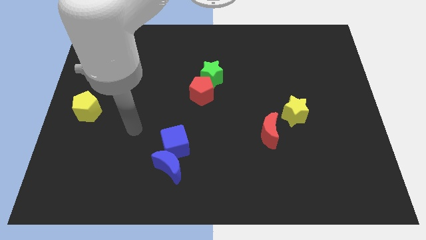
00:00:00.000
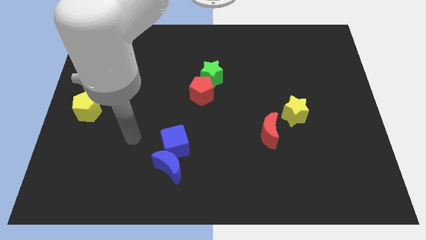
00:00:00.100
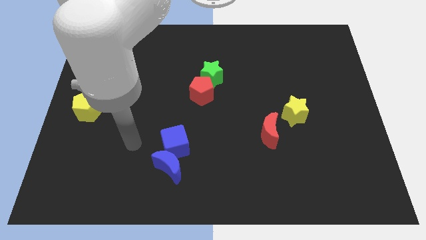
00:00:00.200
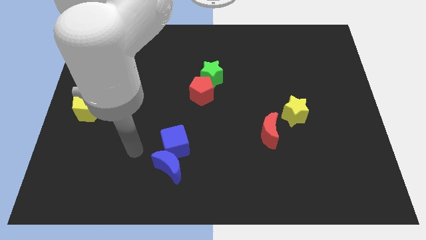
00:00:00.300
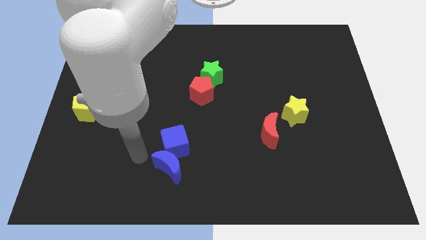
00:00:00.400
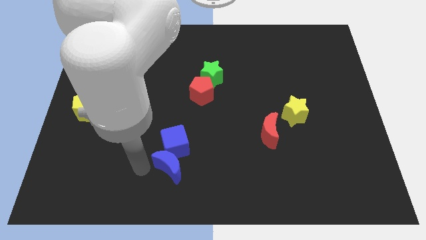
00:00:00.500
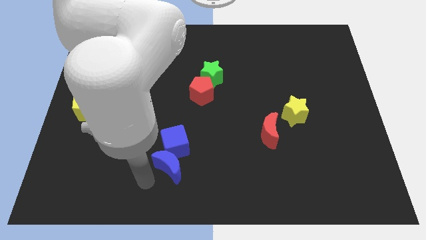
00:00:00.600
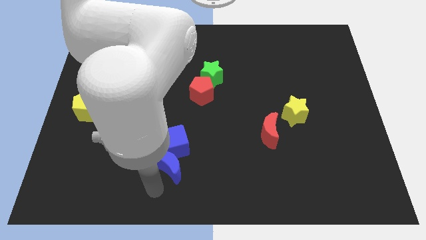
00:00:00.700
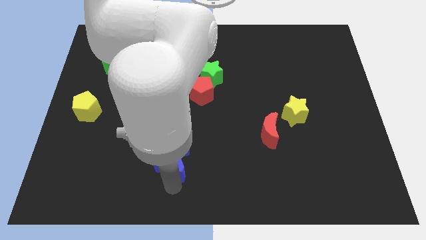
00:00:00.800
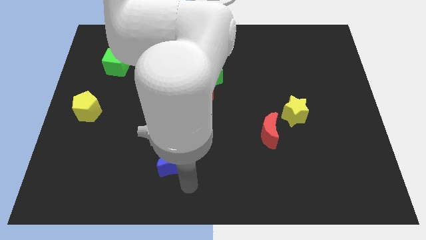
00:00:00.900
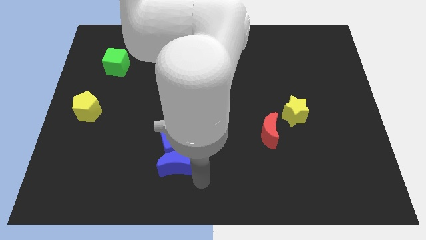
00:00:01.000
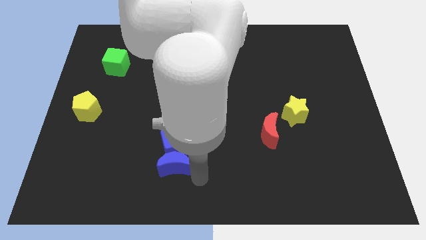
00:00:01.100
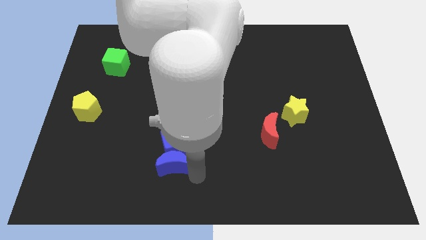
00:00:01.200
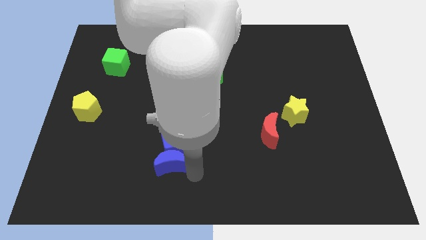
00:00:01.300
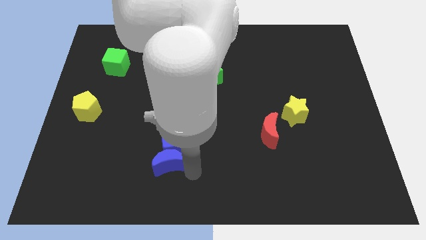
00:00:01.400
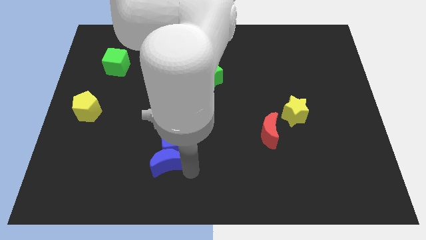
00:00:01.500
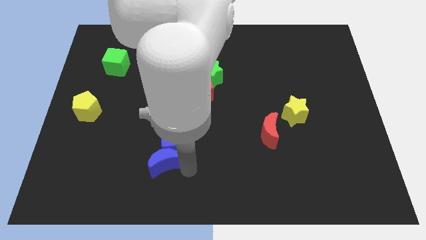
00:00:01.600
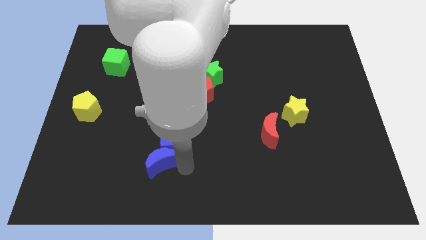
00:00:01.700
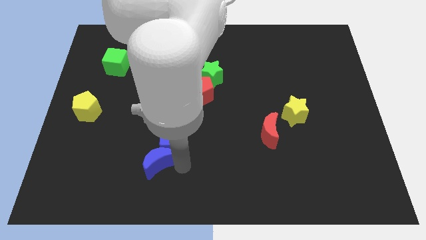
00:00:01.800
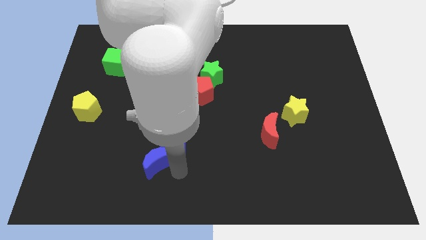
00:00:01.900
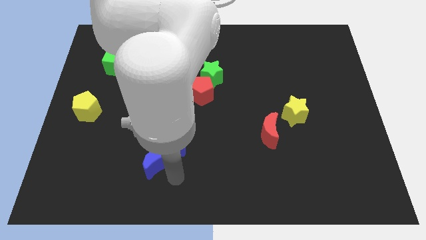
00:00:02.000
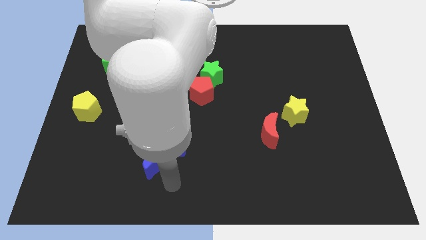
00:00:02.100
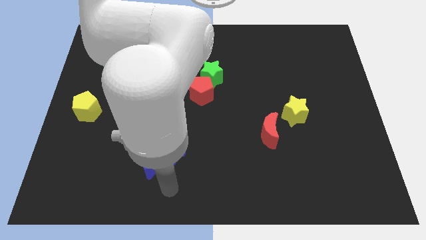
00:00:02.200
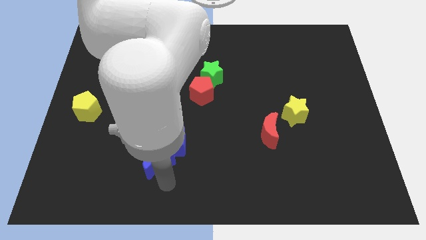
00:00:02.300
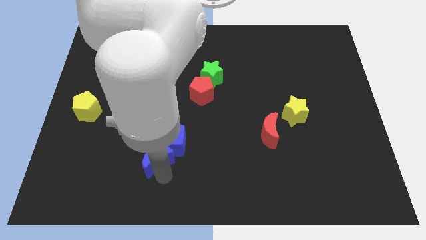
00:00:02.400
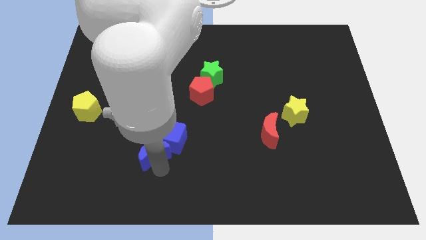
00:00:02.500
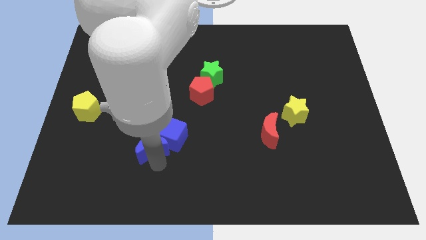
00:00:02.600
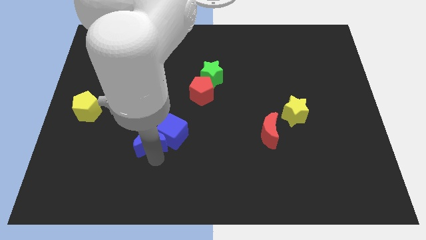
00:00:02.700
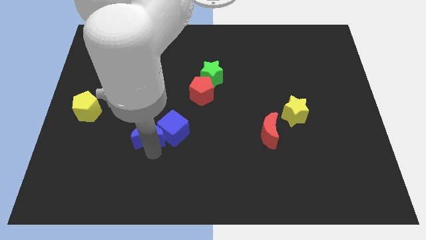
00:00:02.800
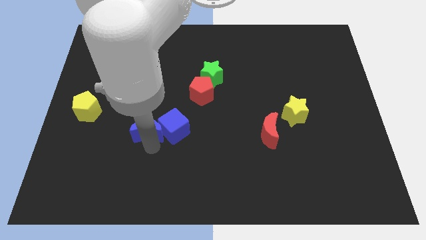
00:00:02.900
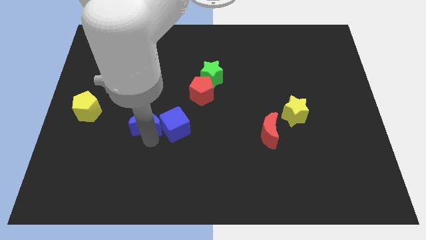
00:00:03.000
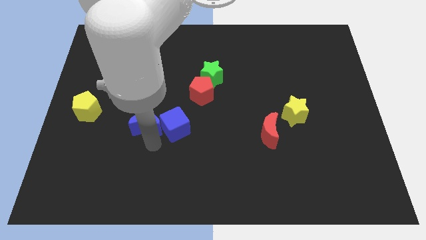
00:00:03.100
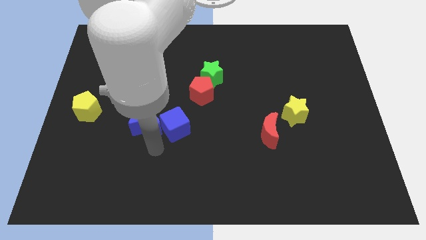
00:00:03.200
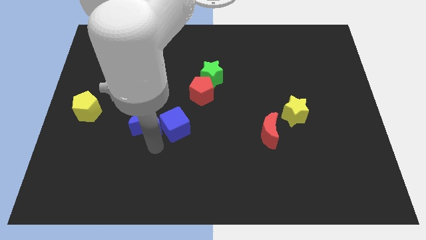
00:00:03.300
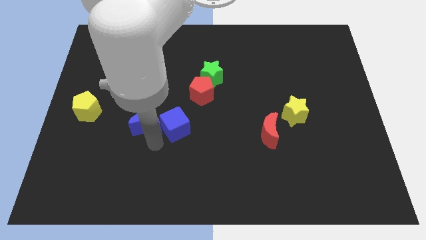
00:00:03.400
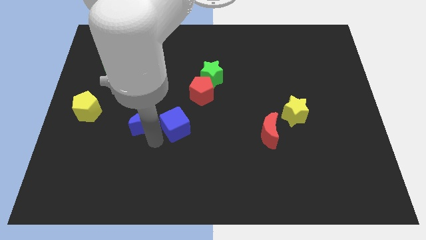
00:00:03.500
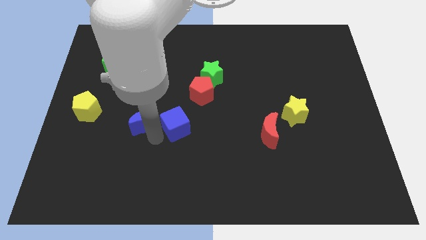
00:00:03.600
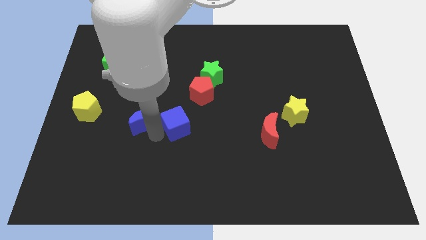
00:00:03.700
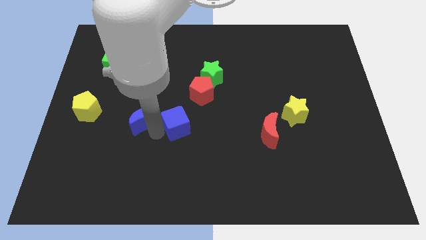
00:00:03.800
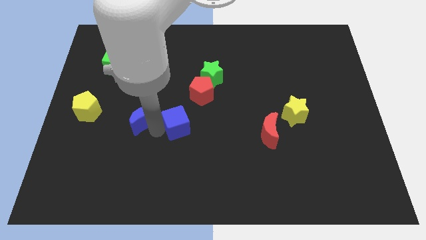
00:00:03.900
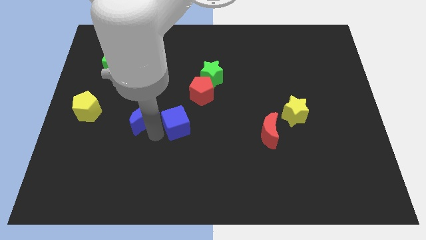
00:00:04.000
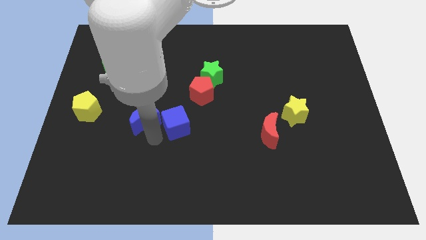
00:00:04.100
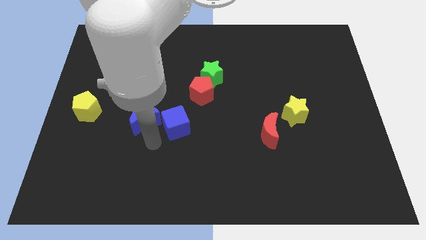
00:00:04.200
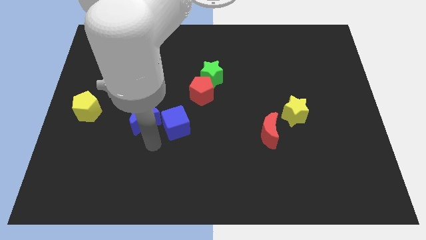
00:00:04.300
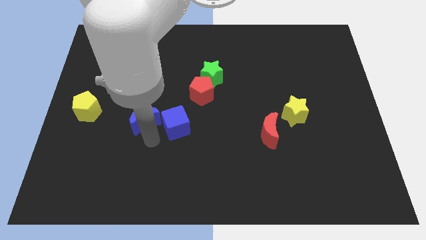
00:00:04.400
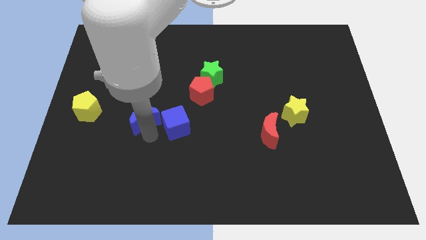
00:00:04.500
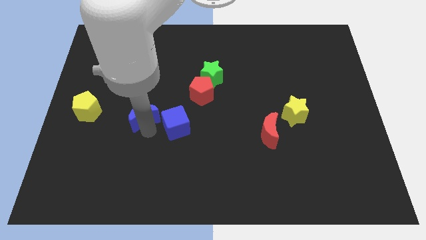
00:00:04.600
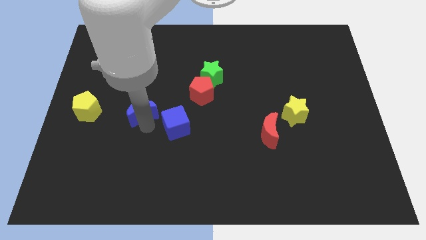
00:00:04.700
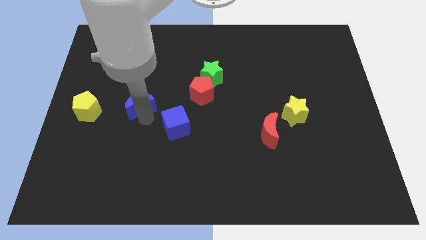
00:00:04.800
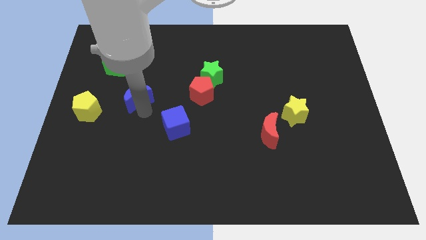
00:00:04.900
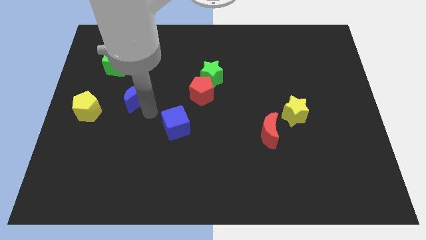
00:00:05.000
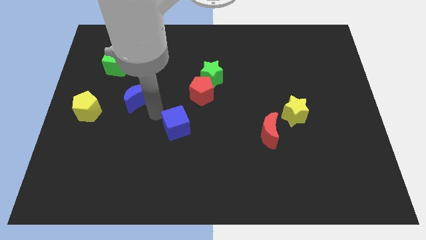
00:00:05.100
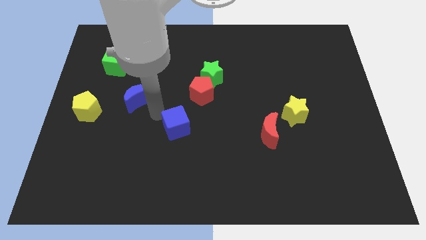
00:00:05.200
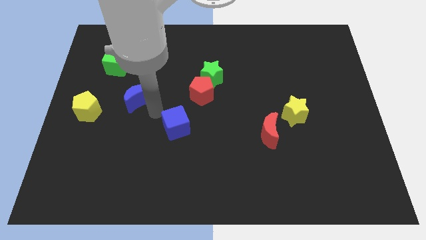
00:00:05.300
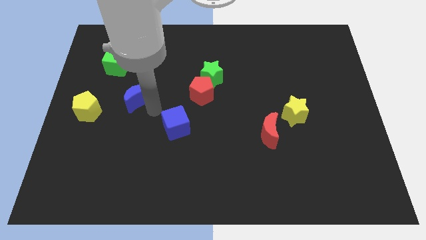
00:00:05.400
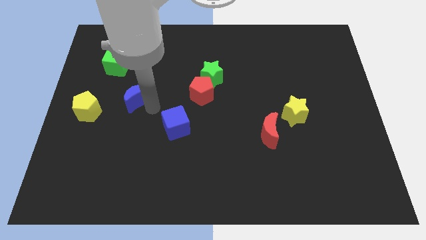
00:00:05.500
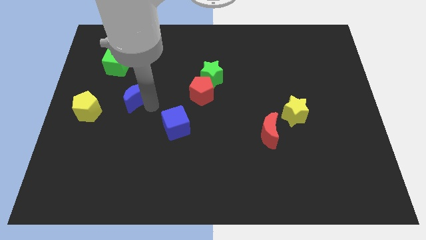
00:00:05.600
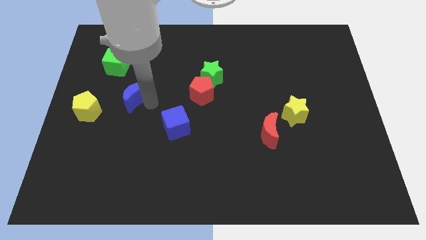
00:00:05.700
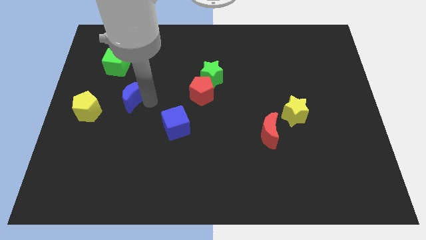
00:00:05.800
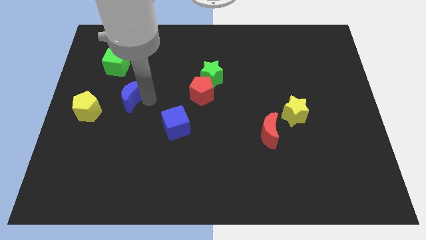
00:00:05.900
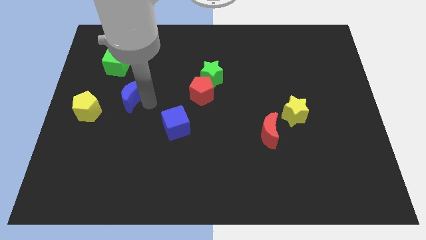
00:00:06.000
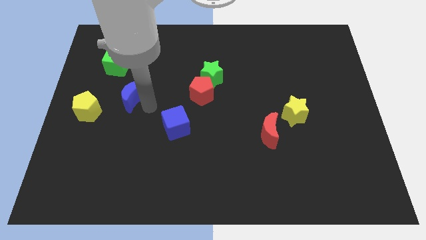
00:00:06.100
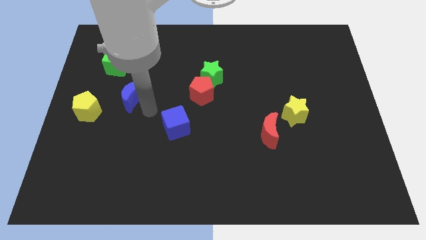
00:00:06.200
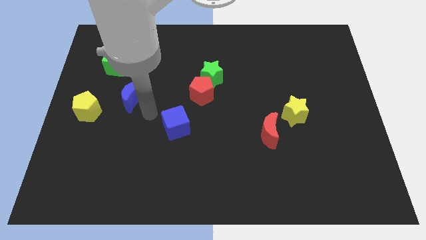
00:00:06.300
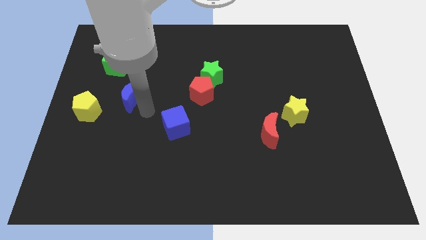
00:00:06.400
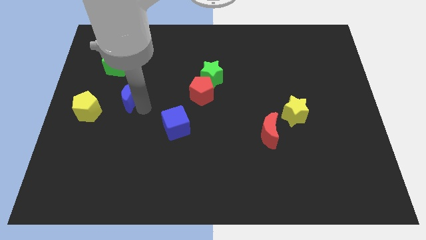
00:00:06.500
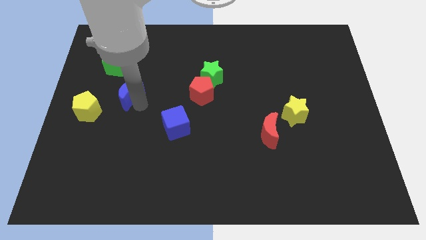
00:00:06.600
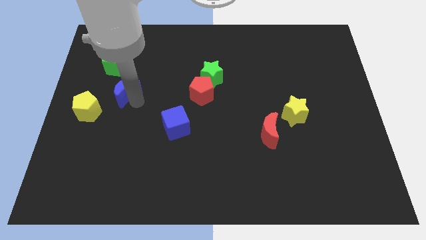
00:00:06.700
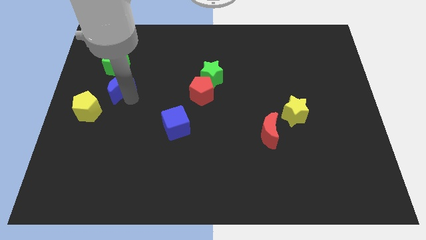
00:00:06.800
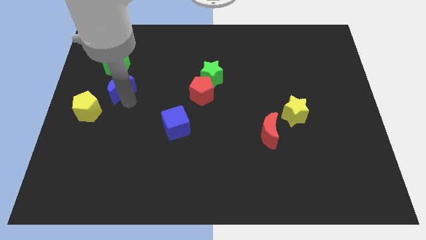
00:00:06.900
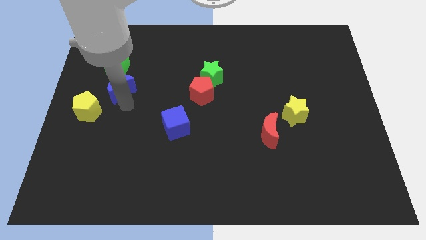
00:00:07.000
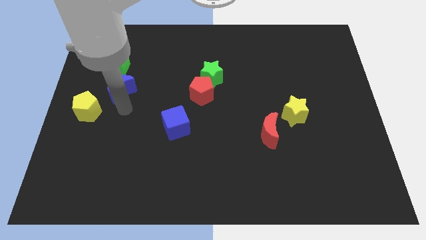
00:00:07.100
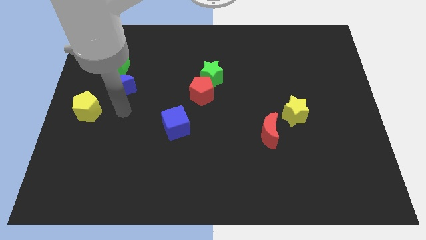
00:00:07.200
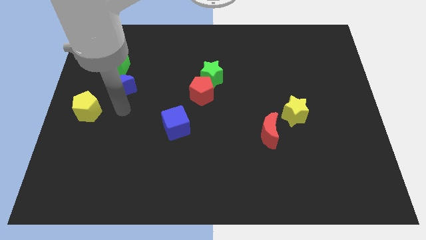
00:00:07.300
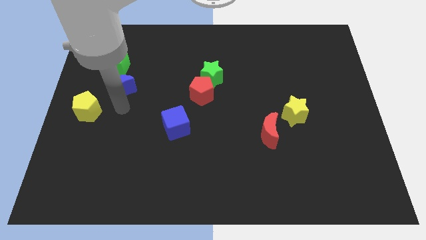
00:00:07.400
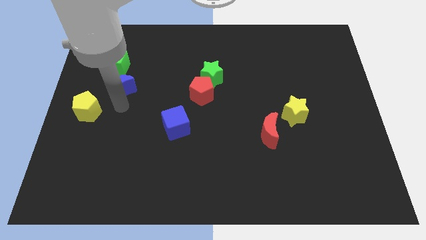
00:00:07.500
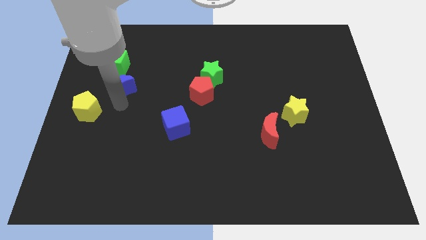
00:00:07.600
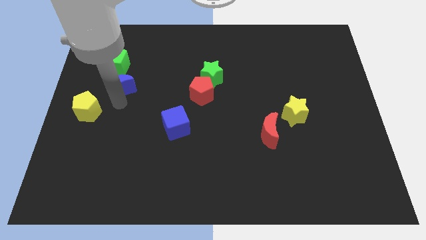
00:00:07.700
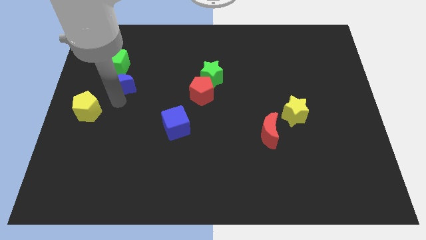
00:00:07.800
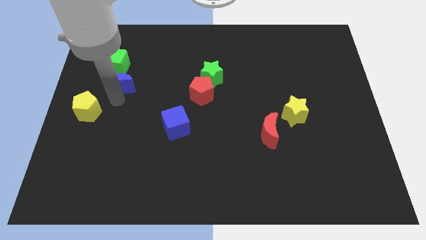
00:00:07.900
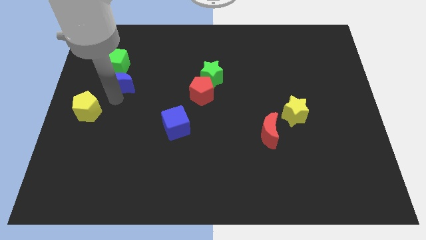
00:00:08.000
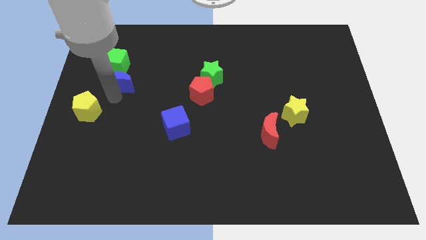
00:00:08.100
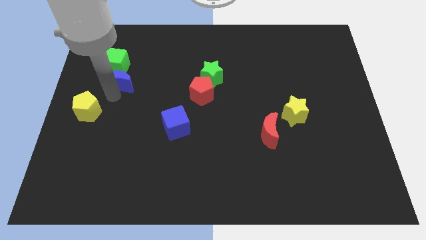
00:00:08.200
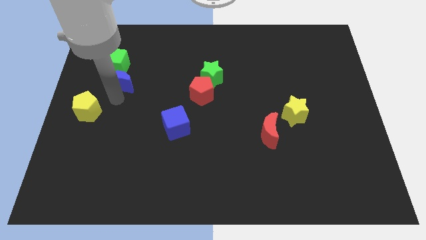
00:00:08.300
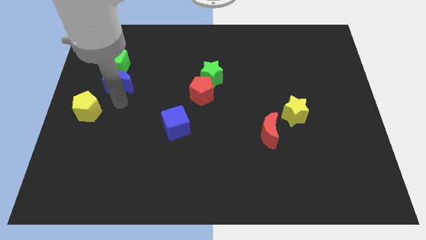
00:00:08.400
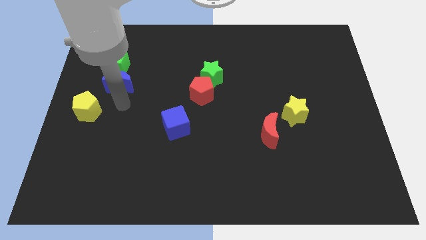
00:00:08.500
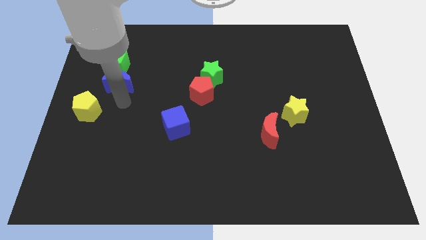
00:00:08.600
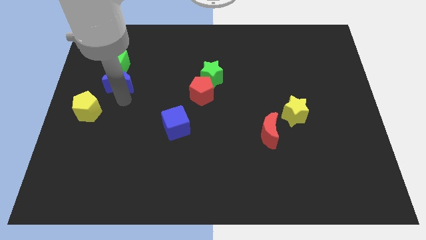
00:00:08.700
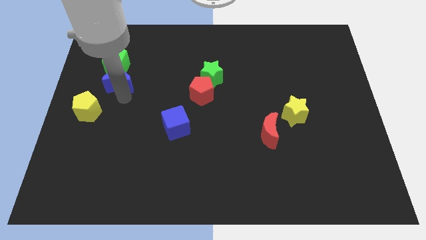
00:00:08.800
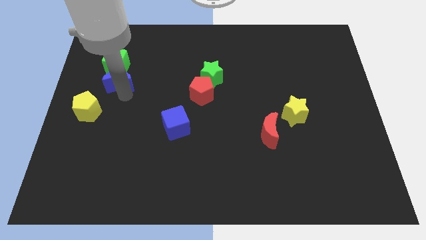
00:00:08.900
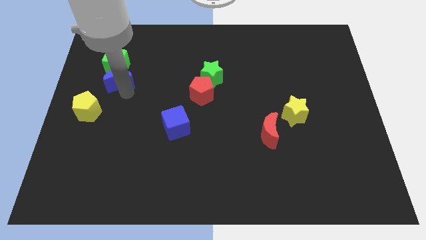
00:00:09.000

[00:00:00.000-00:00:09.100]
slide the blue moon close to the green cube
